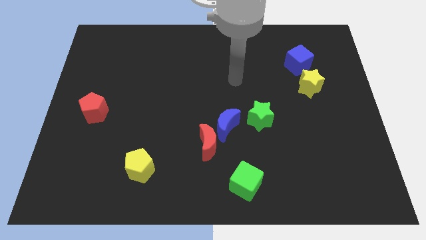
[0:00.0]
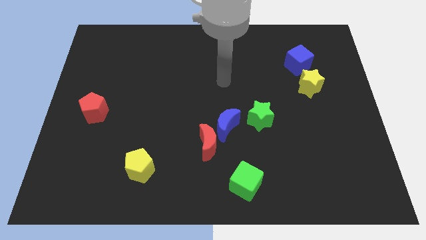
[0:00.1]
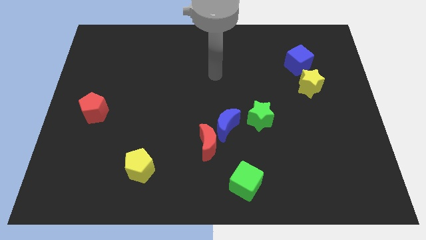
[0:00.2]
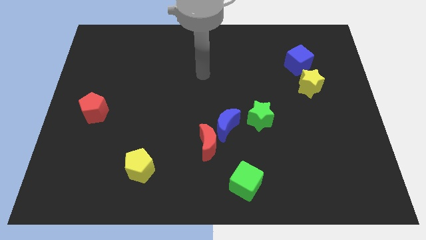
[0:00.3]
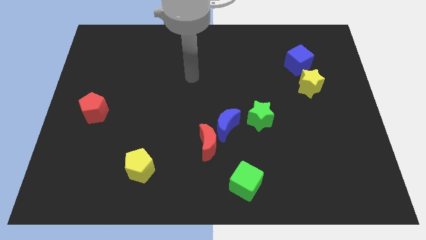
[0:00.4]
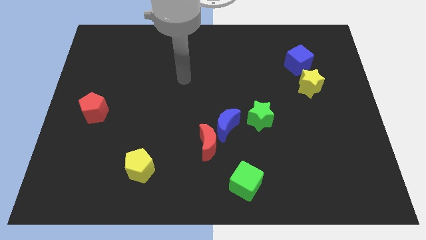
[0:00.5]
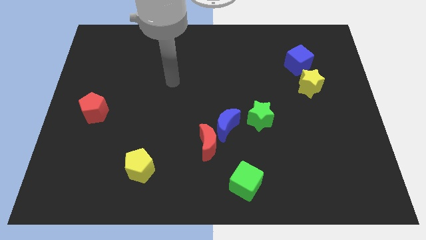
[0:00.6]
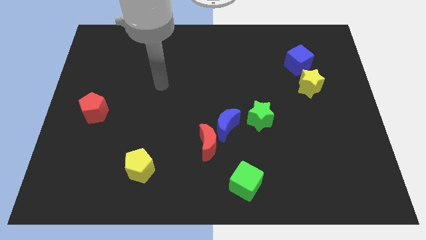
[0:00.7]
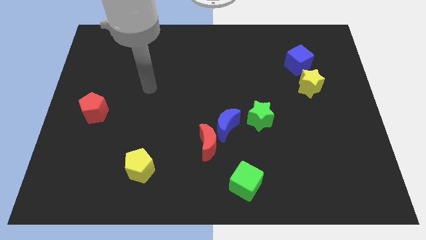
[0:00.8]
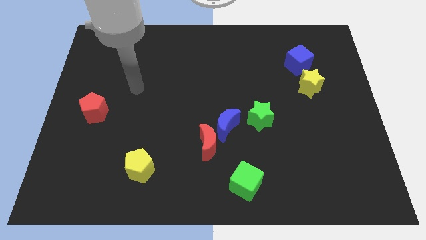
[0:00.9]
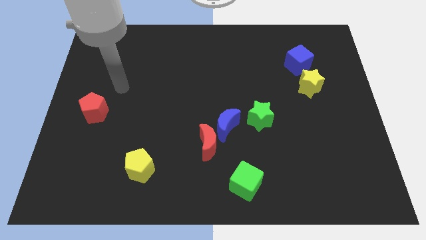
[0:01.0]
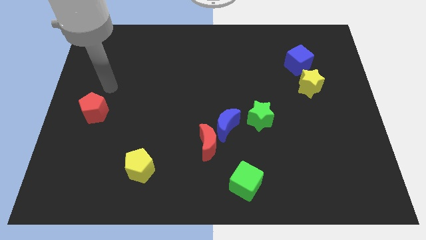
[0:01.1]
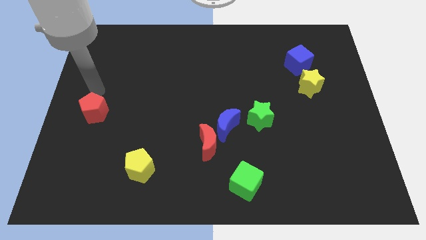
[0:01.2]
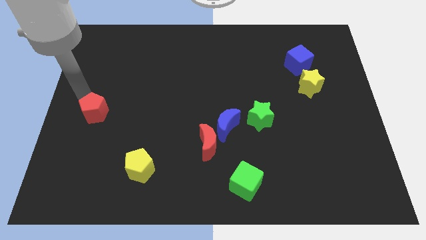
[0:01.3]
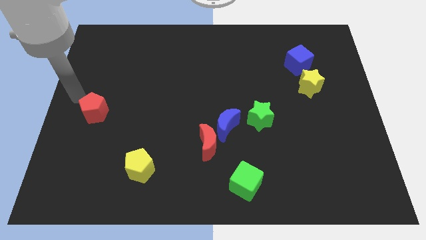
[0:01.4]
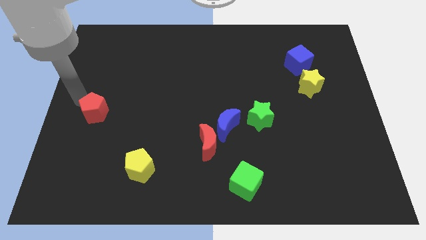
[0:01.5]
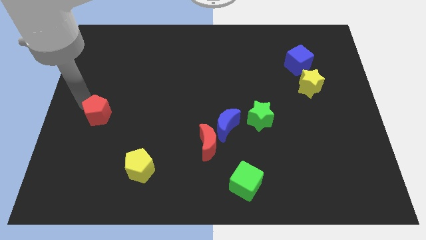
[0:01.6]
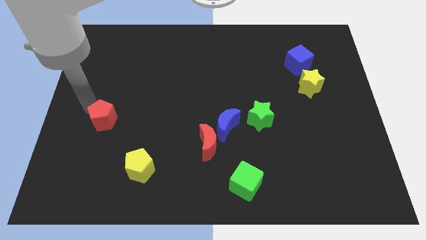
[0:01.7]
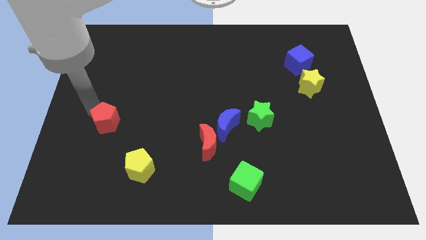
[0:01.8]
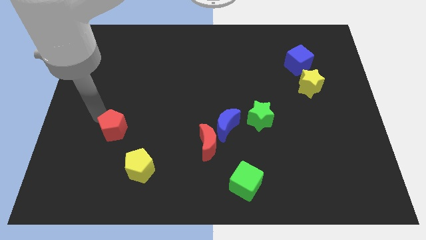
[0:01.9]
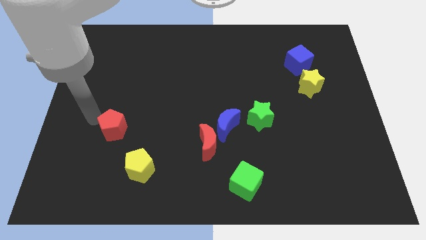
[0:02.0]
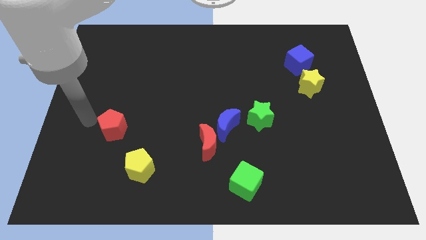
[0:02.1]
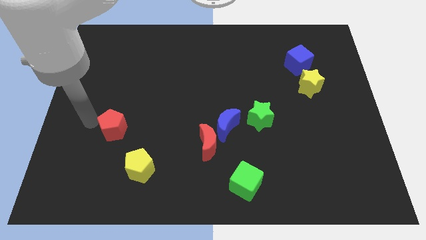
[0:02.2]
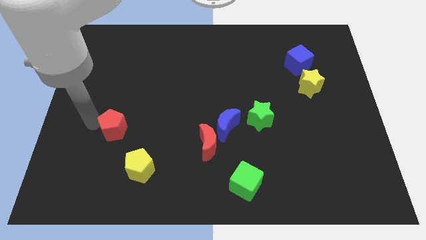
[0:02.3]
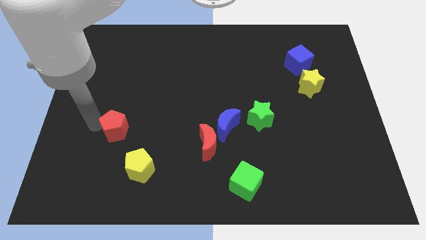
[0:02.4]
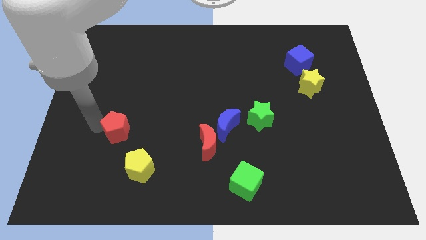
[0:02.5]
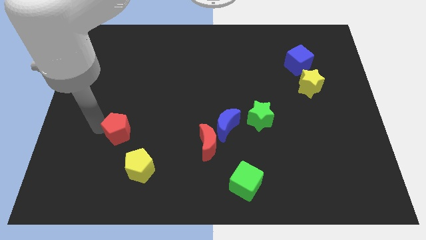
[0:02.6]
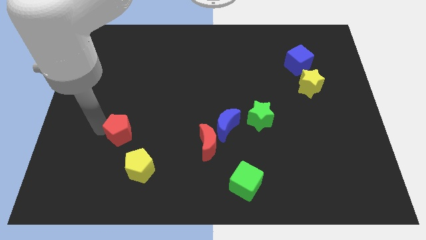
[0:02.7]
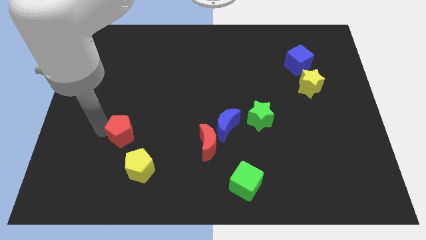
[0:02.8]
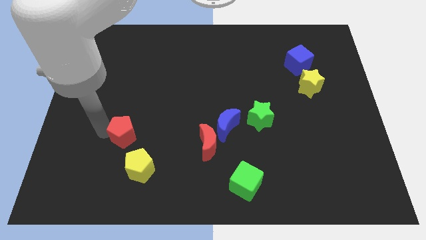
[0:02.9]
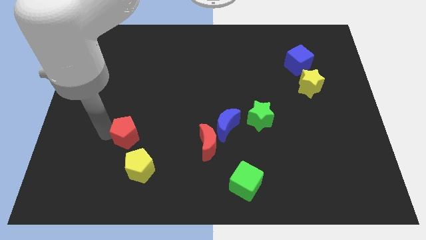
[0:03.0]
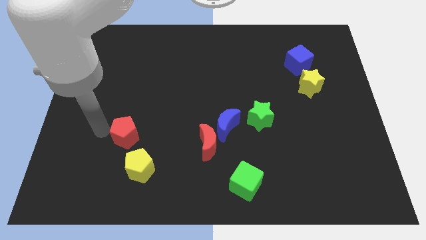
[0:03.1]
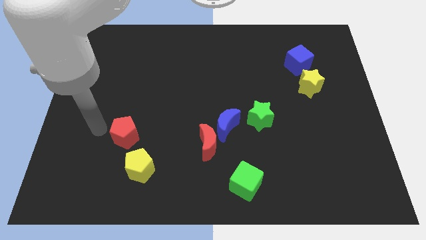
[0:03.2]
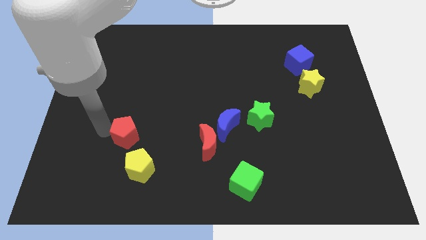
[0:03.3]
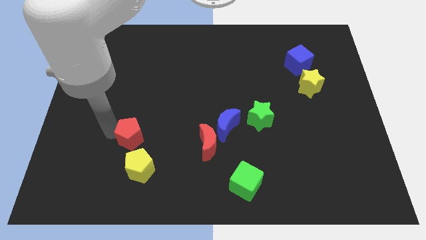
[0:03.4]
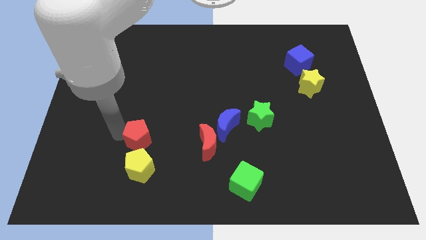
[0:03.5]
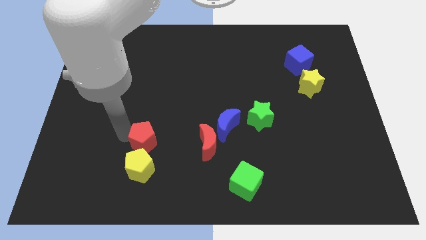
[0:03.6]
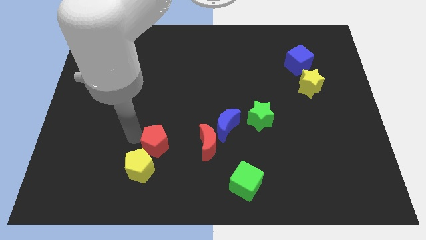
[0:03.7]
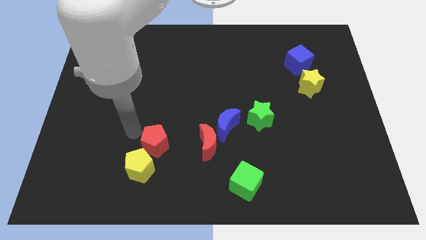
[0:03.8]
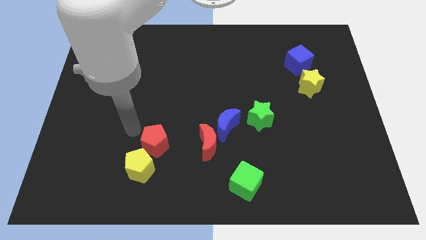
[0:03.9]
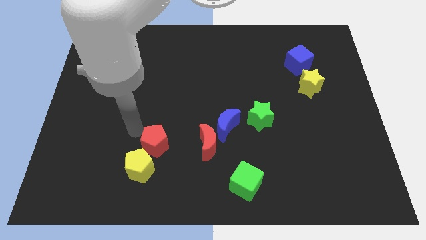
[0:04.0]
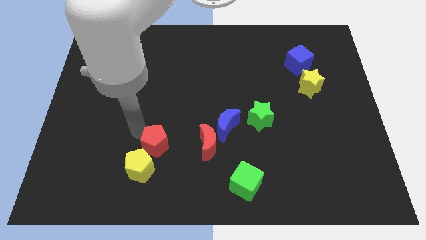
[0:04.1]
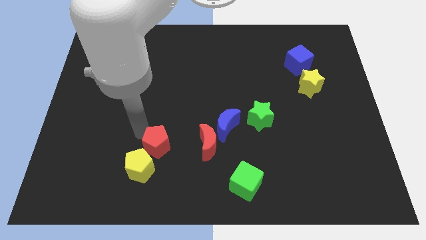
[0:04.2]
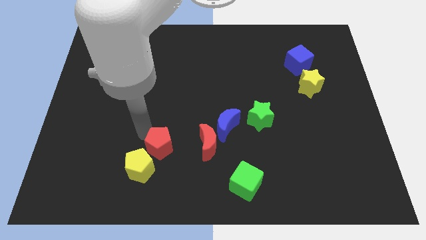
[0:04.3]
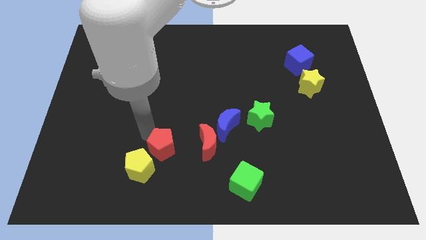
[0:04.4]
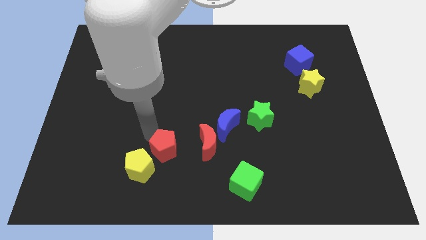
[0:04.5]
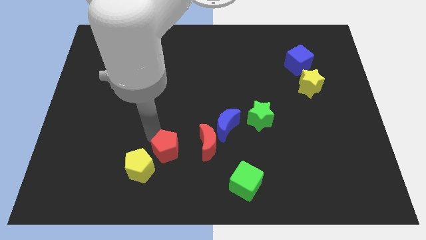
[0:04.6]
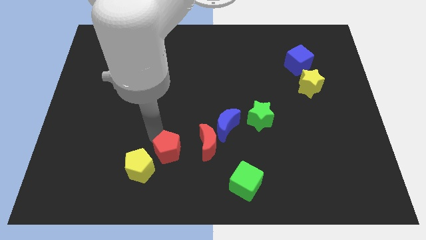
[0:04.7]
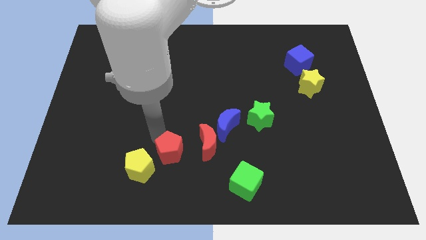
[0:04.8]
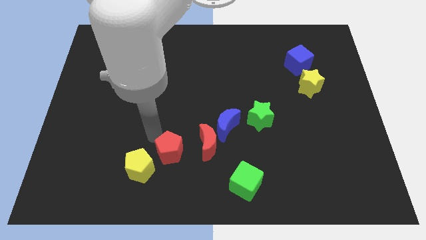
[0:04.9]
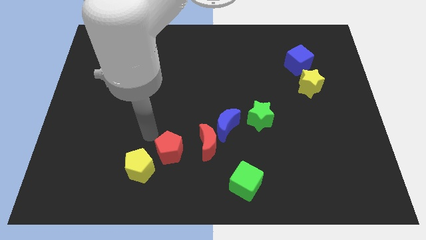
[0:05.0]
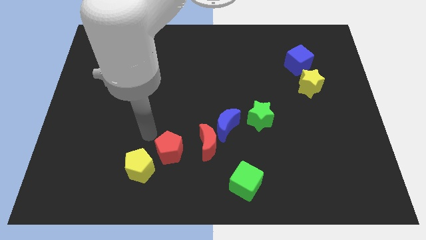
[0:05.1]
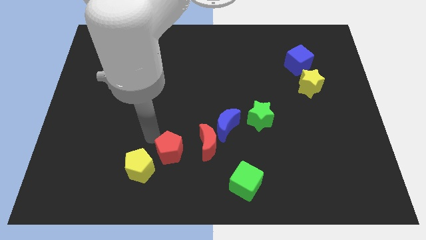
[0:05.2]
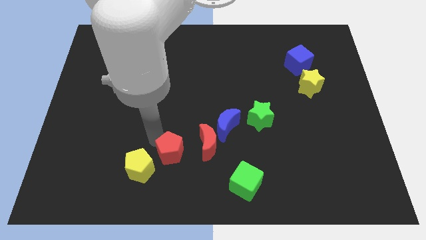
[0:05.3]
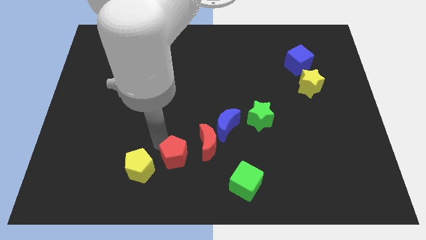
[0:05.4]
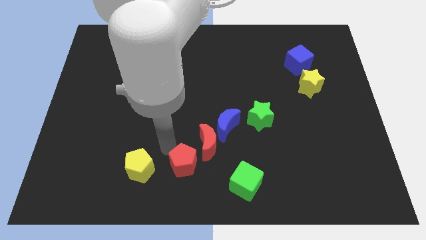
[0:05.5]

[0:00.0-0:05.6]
move the red pentagon left of the green cube

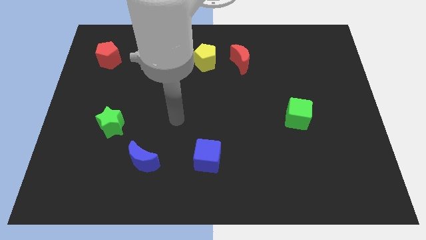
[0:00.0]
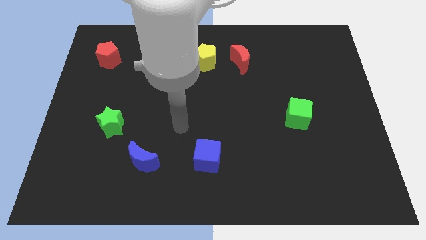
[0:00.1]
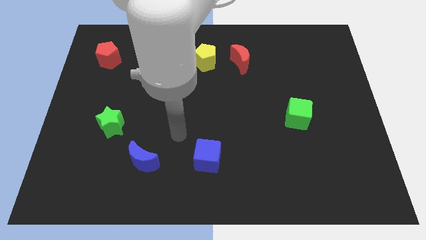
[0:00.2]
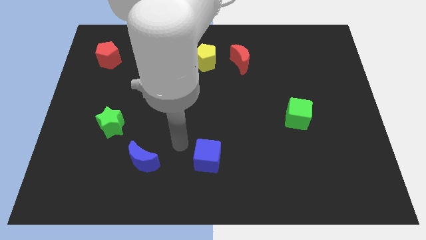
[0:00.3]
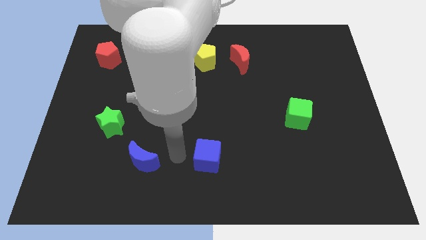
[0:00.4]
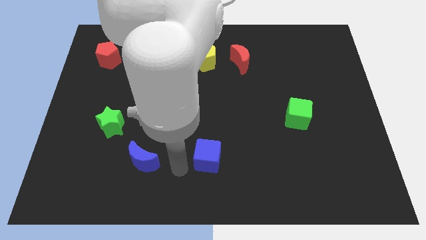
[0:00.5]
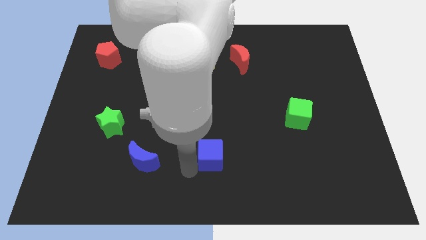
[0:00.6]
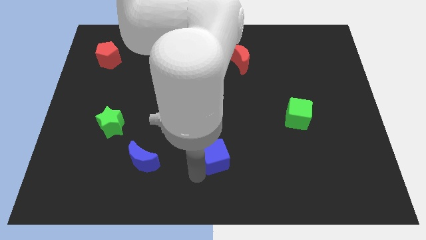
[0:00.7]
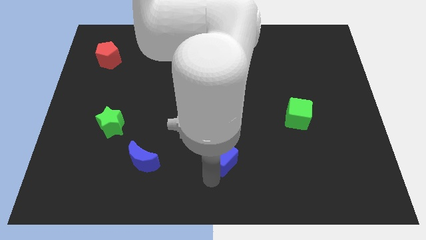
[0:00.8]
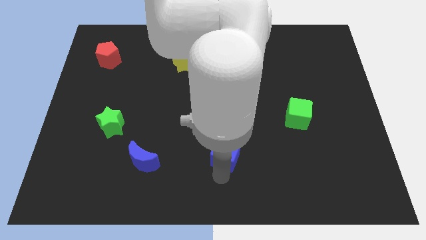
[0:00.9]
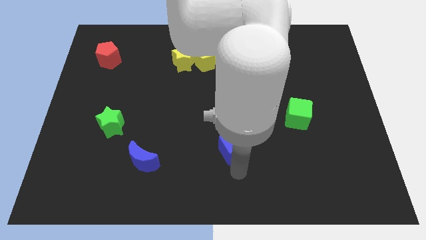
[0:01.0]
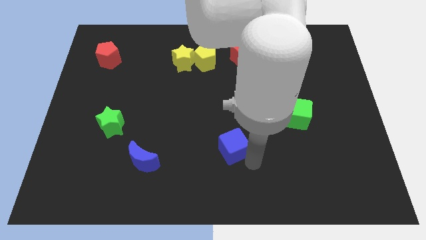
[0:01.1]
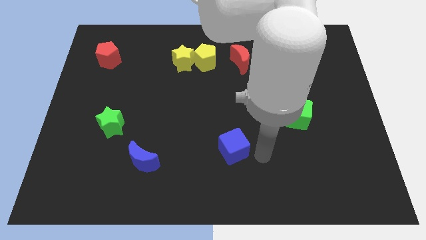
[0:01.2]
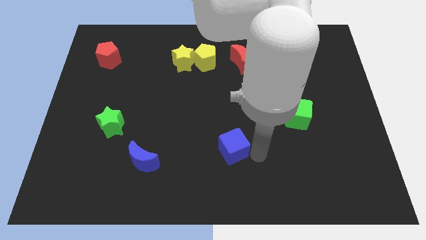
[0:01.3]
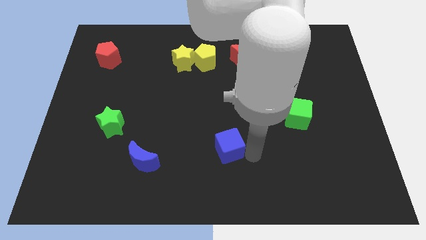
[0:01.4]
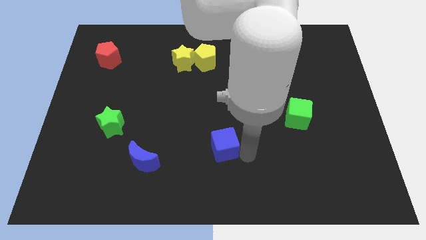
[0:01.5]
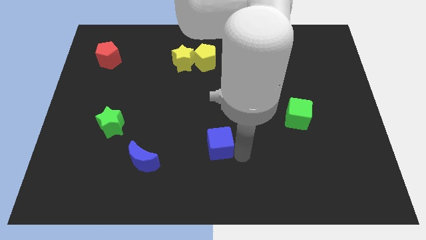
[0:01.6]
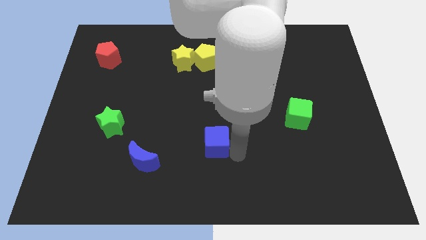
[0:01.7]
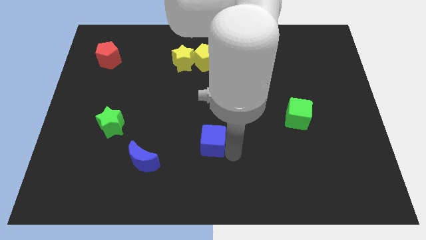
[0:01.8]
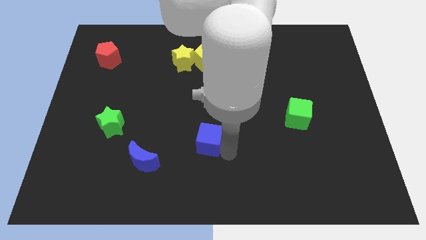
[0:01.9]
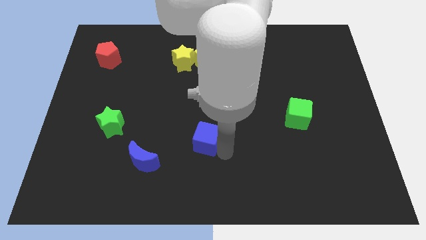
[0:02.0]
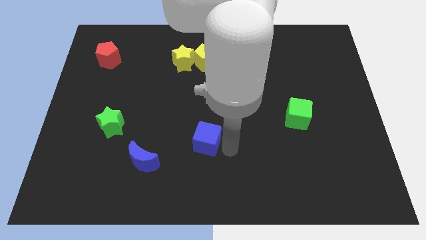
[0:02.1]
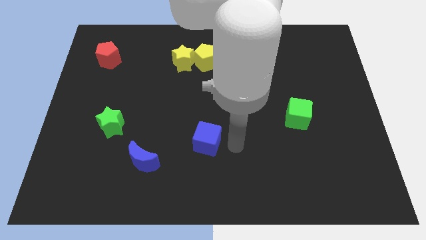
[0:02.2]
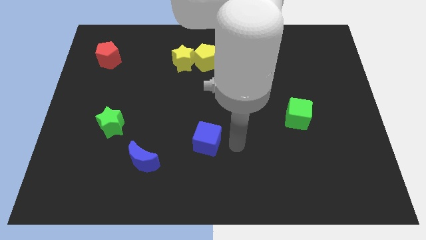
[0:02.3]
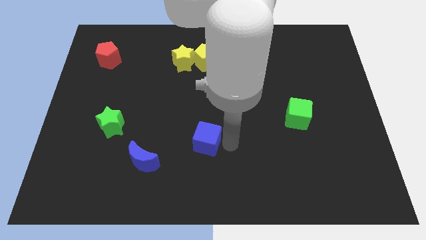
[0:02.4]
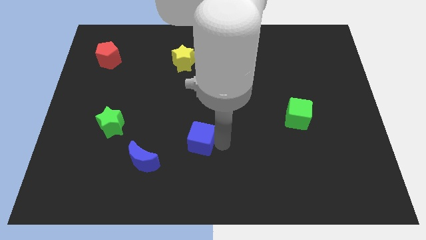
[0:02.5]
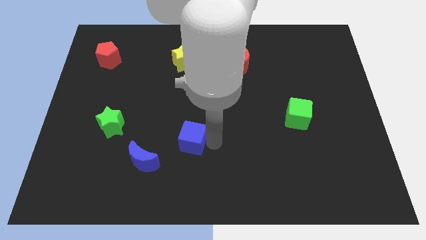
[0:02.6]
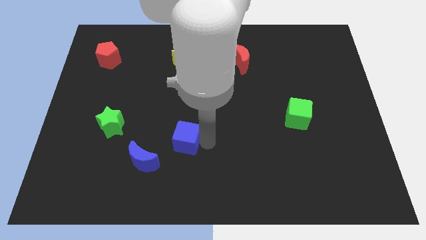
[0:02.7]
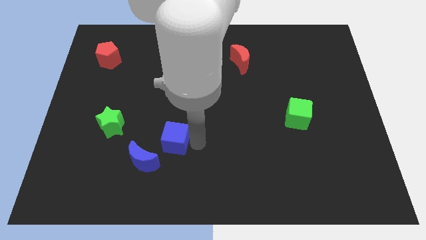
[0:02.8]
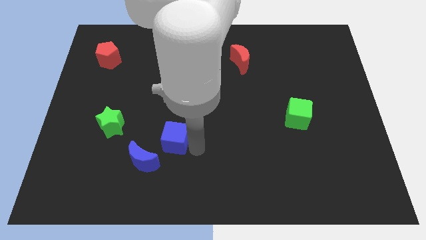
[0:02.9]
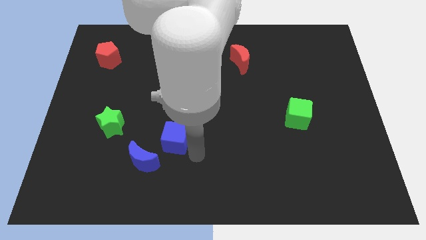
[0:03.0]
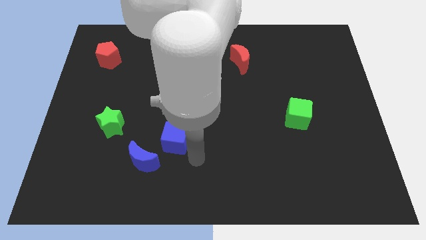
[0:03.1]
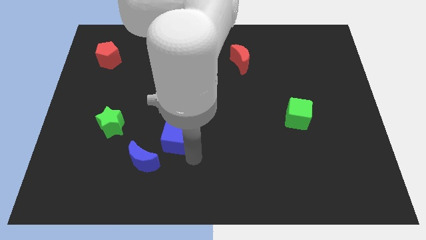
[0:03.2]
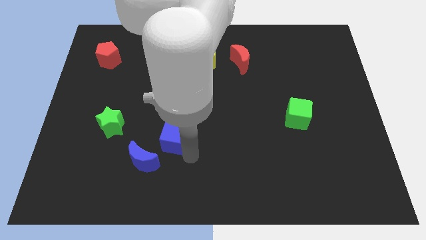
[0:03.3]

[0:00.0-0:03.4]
push the blue cube to the right of the green star
